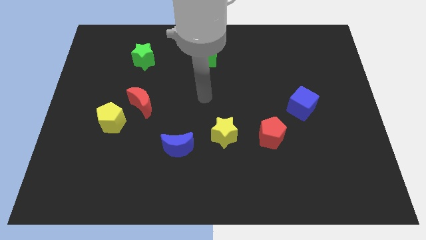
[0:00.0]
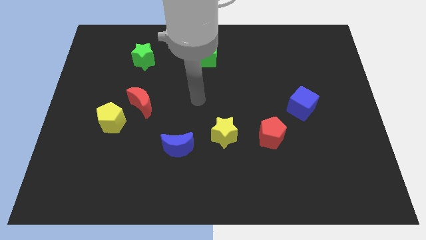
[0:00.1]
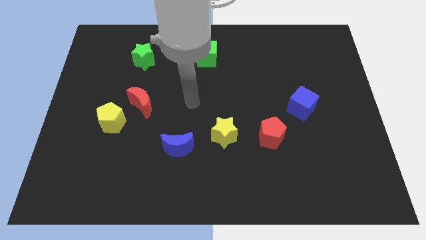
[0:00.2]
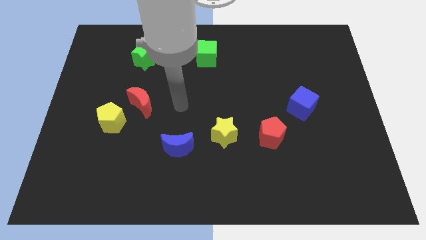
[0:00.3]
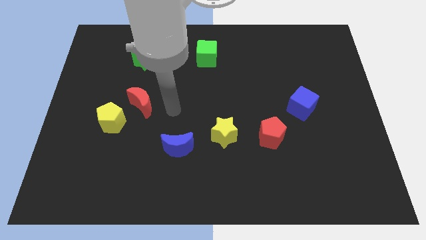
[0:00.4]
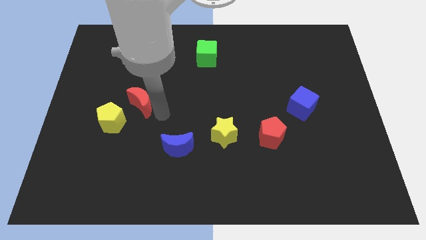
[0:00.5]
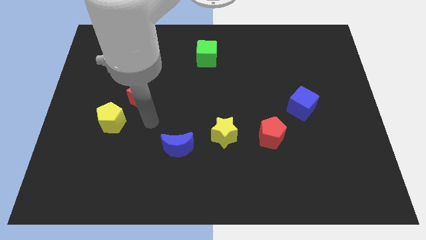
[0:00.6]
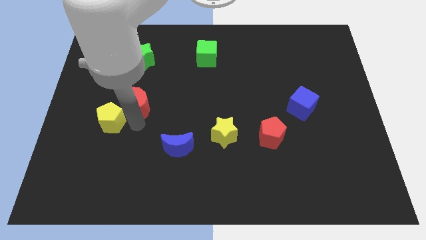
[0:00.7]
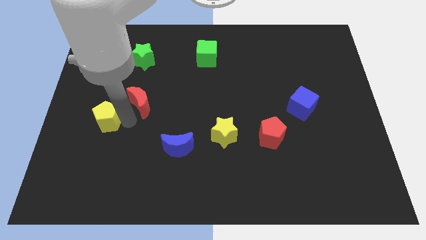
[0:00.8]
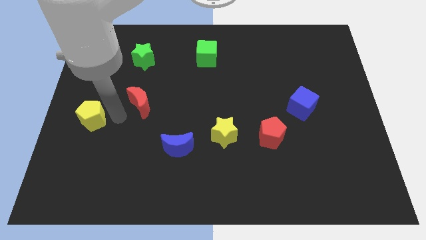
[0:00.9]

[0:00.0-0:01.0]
move the red moon away from the yellow pentagon

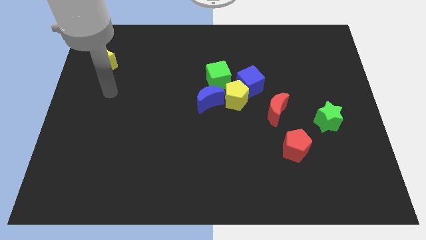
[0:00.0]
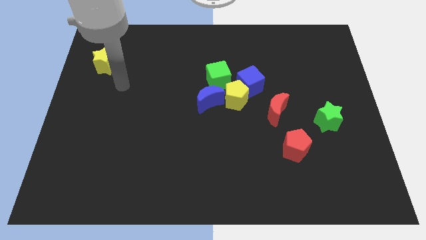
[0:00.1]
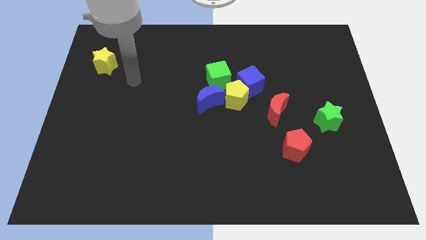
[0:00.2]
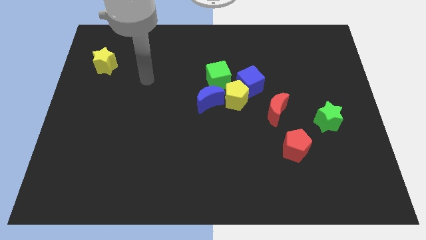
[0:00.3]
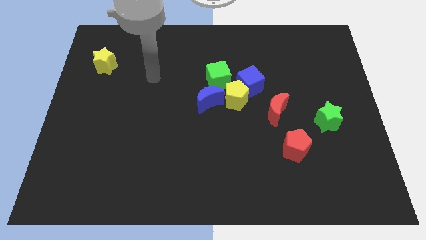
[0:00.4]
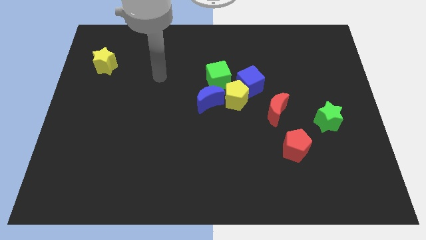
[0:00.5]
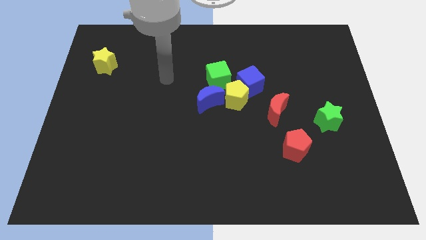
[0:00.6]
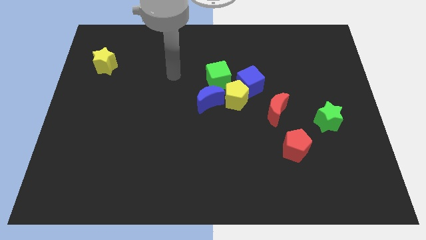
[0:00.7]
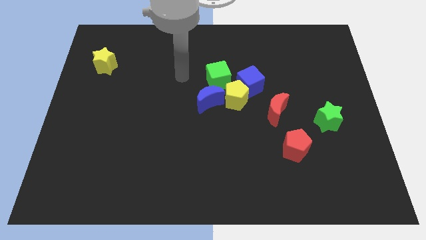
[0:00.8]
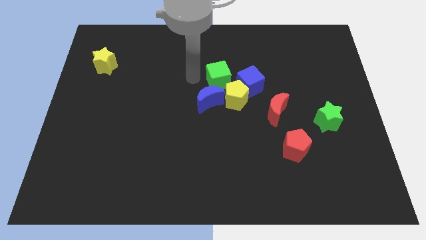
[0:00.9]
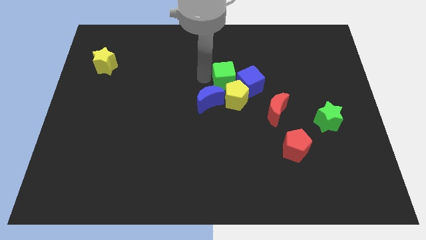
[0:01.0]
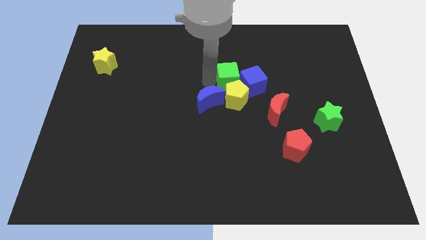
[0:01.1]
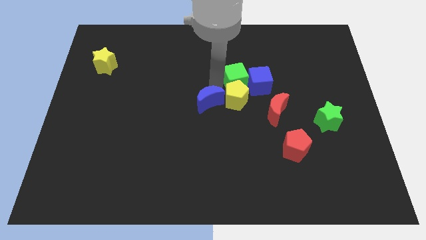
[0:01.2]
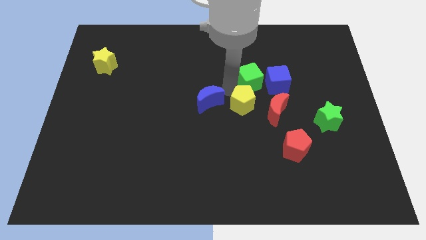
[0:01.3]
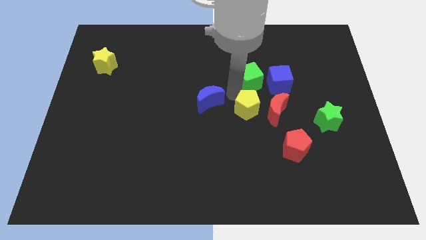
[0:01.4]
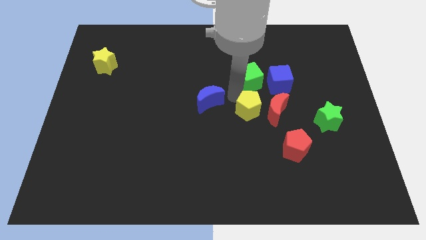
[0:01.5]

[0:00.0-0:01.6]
pull the blue moon apart from the yellow pentagon and green cube

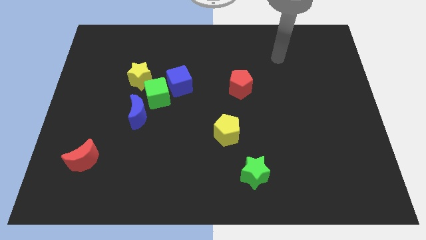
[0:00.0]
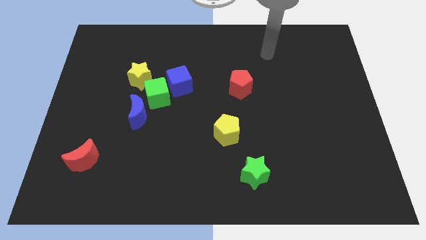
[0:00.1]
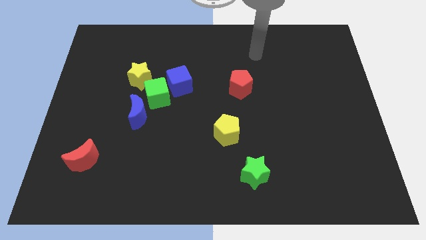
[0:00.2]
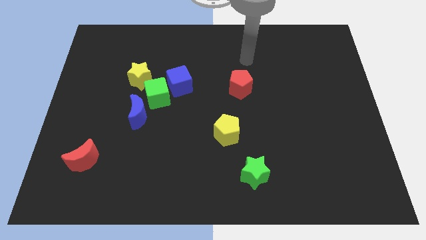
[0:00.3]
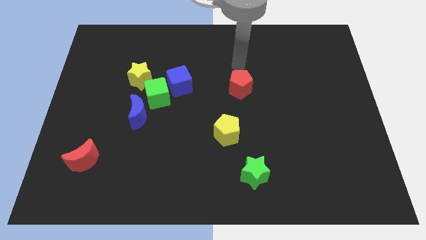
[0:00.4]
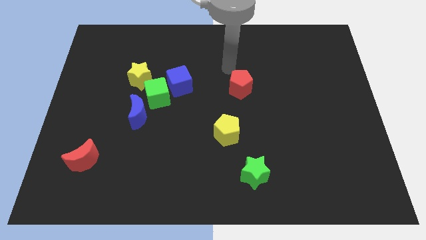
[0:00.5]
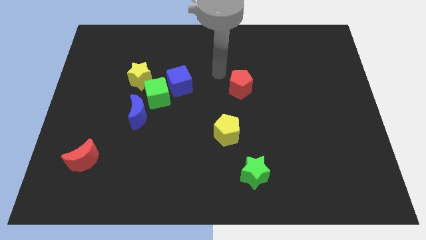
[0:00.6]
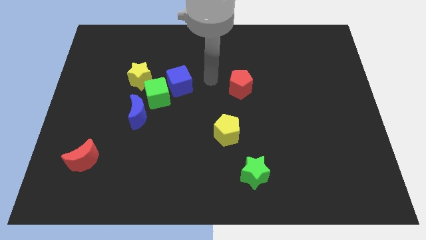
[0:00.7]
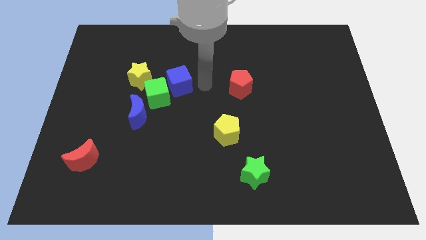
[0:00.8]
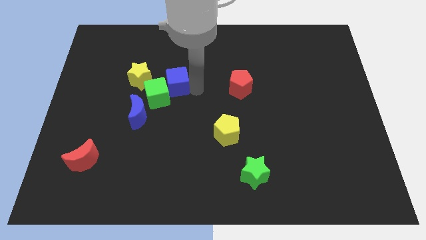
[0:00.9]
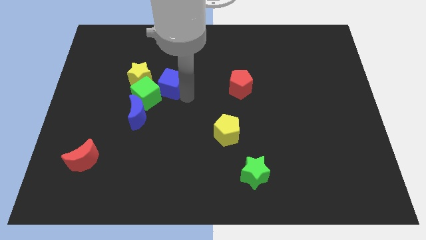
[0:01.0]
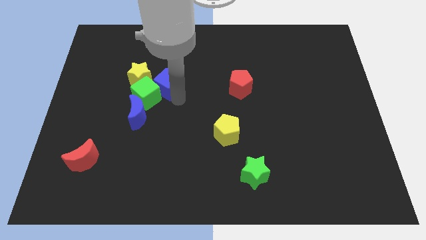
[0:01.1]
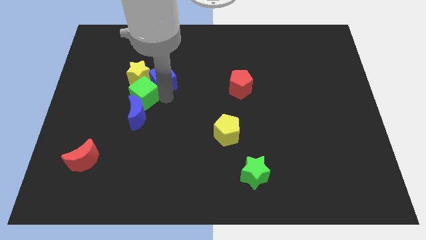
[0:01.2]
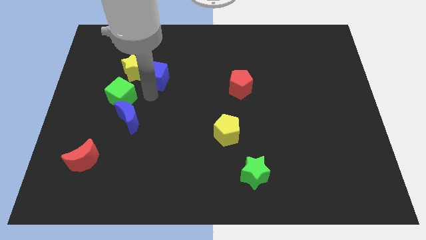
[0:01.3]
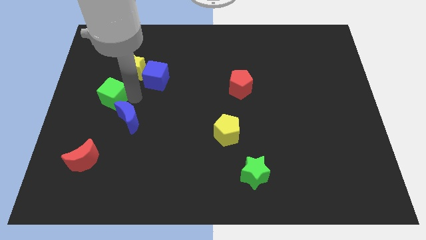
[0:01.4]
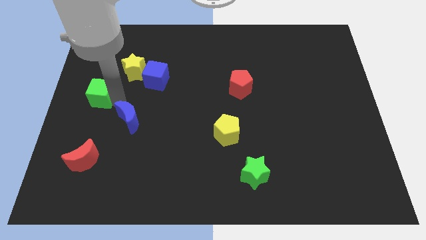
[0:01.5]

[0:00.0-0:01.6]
pull the blue moon apart from the green cube

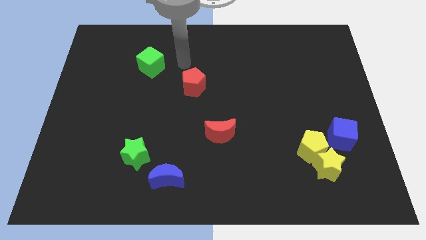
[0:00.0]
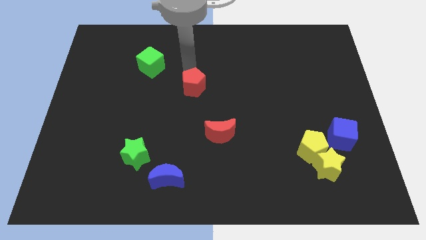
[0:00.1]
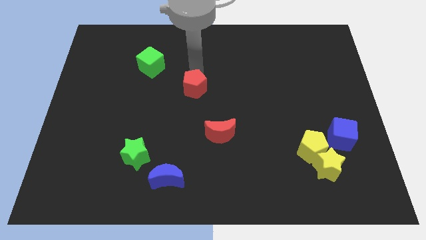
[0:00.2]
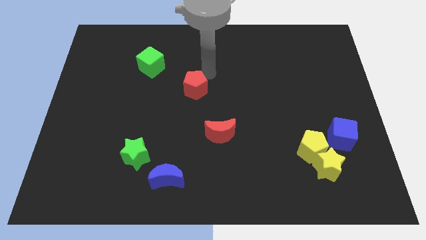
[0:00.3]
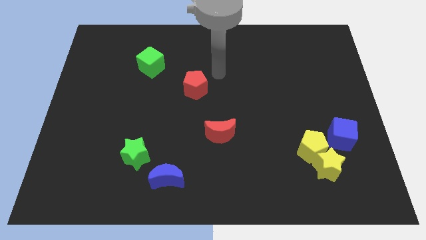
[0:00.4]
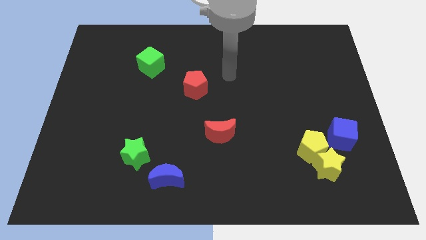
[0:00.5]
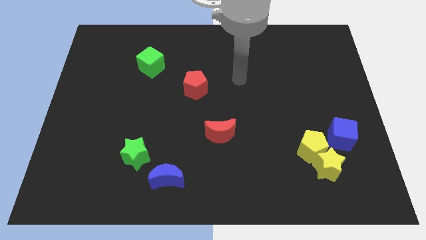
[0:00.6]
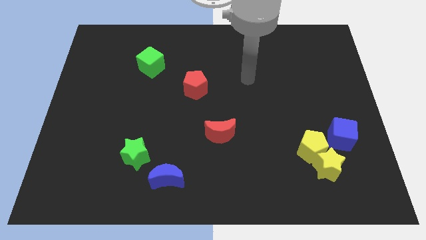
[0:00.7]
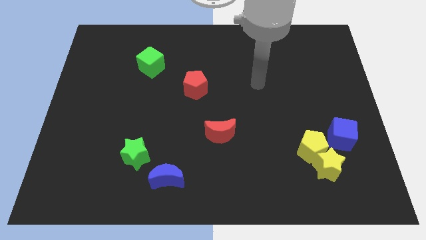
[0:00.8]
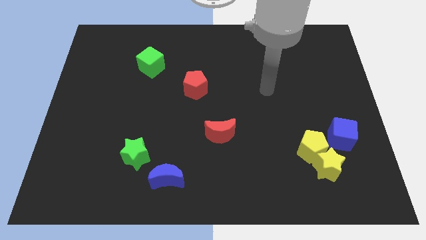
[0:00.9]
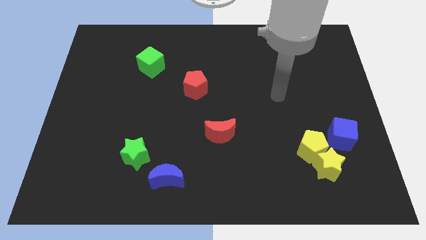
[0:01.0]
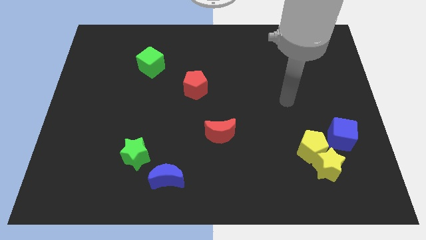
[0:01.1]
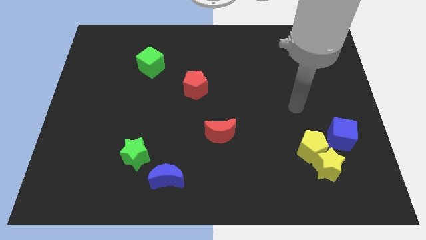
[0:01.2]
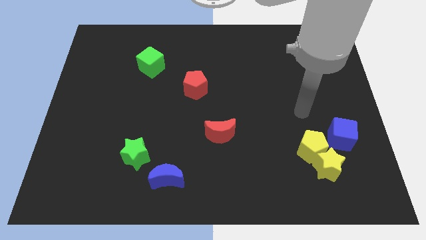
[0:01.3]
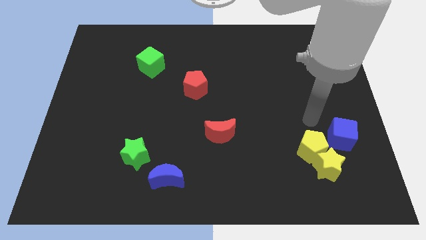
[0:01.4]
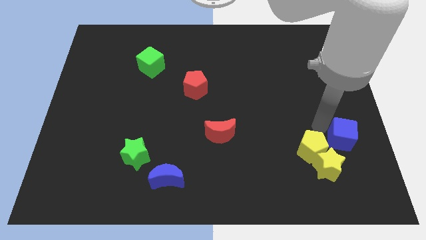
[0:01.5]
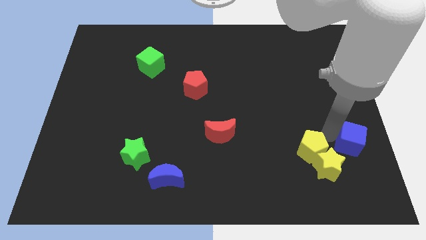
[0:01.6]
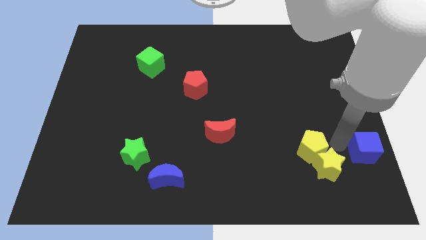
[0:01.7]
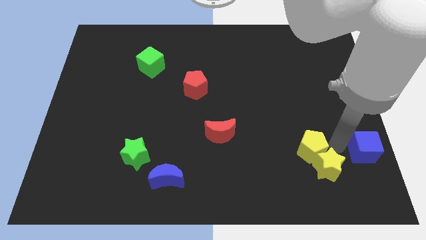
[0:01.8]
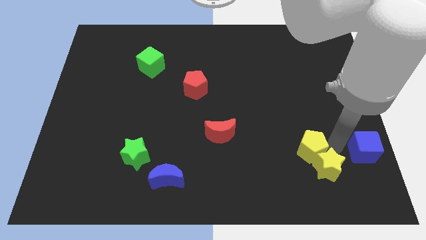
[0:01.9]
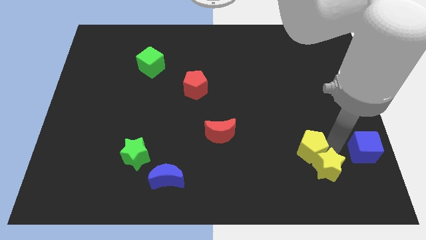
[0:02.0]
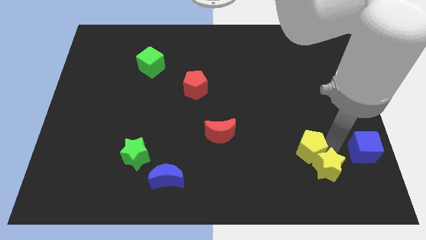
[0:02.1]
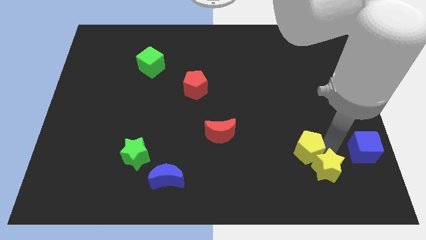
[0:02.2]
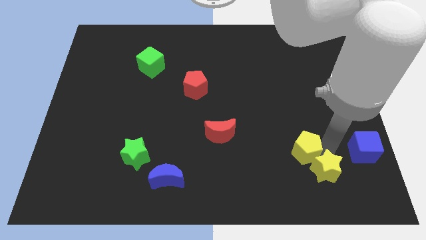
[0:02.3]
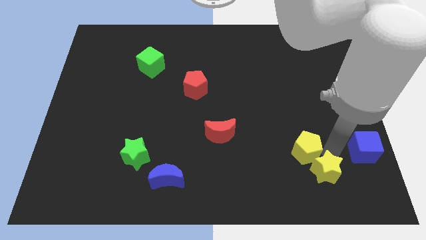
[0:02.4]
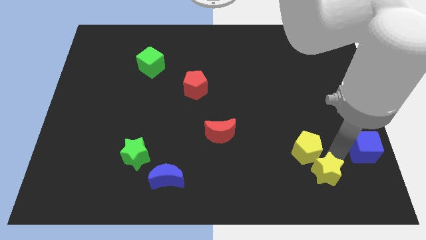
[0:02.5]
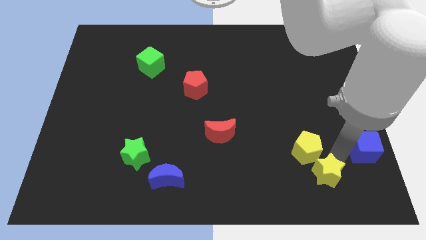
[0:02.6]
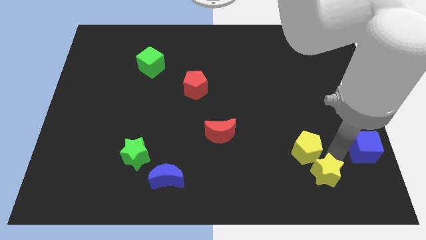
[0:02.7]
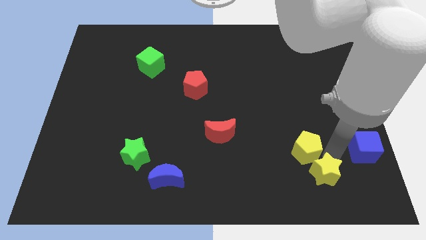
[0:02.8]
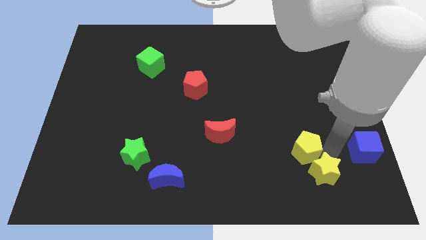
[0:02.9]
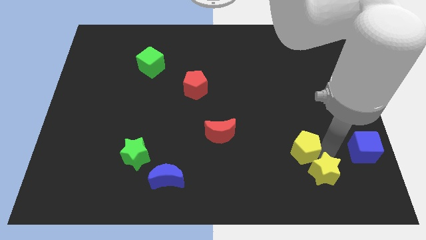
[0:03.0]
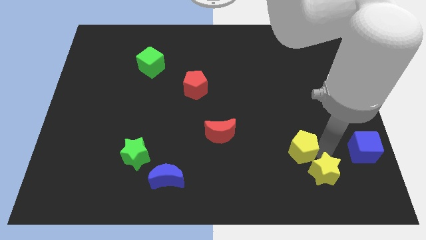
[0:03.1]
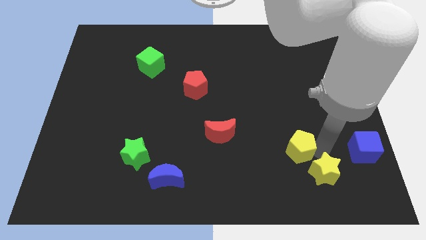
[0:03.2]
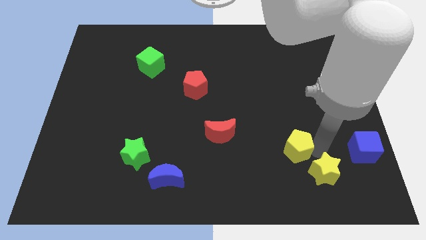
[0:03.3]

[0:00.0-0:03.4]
pull the yellow pentagon apart from the yellow star and blue cube

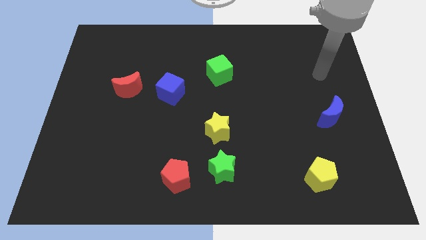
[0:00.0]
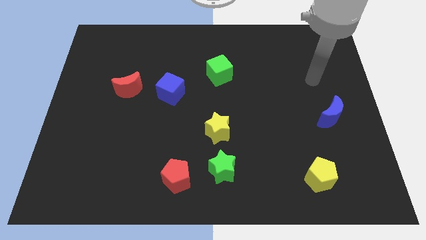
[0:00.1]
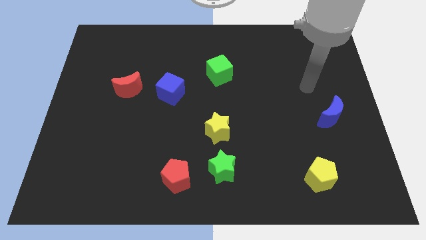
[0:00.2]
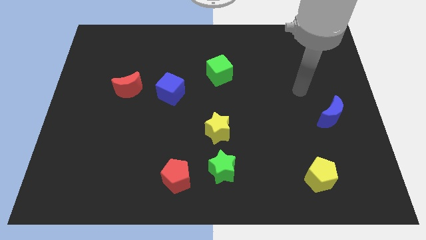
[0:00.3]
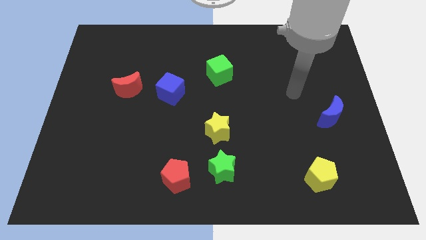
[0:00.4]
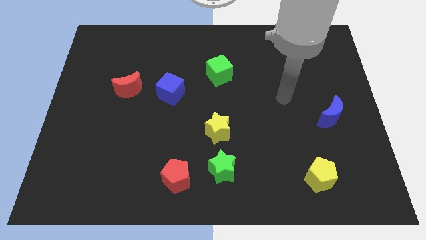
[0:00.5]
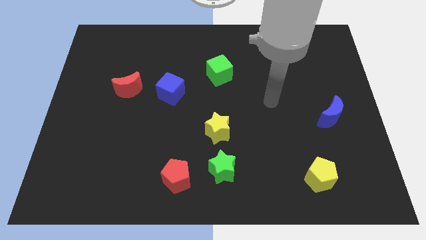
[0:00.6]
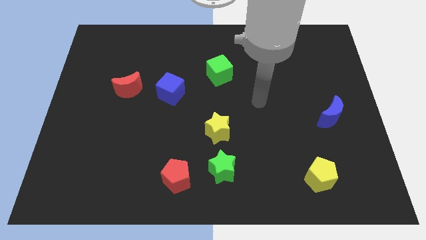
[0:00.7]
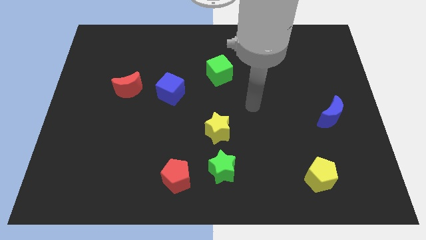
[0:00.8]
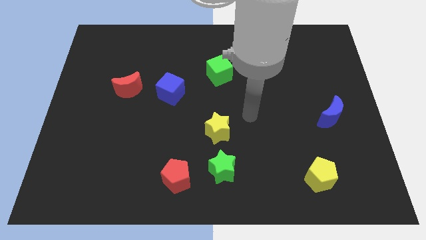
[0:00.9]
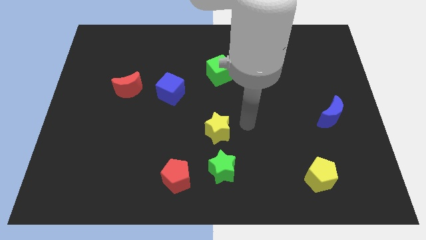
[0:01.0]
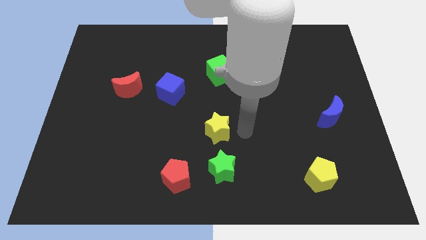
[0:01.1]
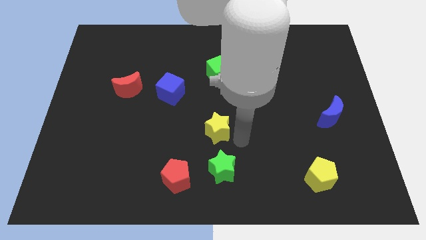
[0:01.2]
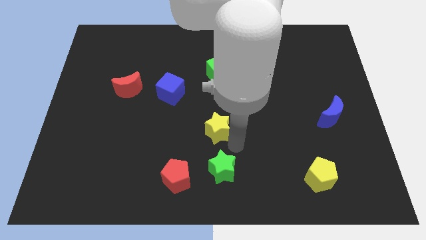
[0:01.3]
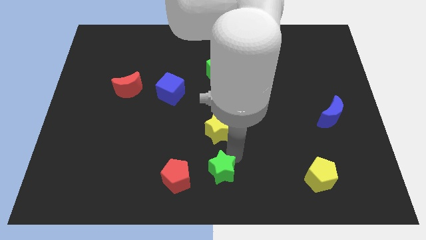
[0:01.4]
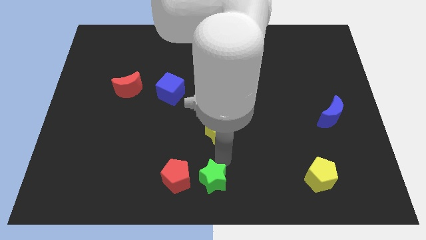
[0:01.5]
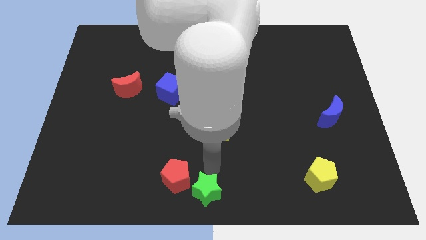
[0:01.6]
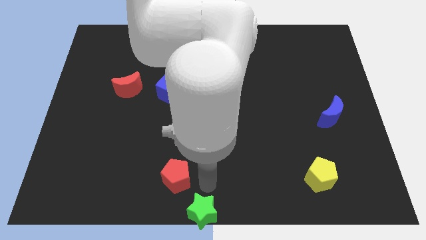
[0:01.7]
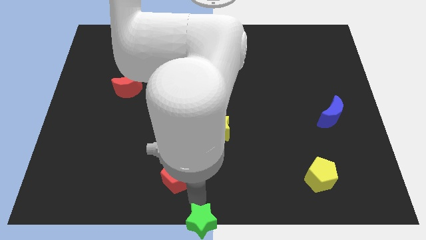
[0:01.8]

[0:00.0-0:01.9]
pull the red pentagon apart from the green star
